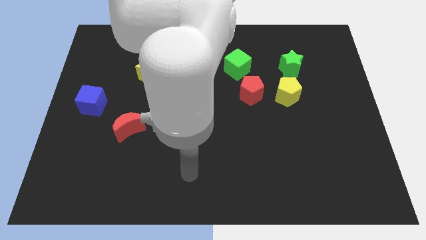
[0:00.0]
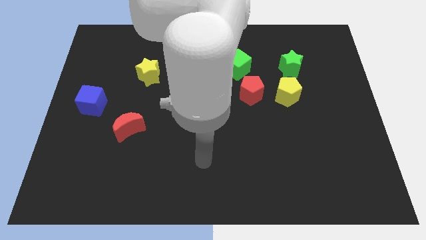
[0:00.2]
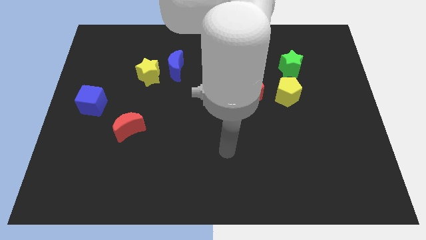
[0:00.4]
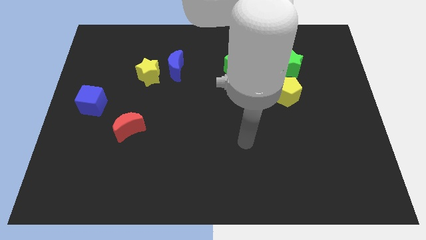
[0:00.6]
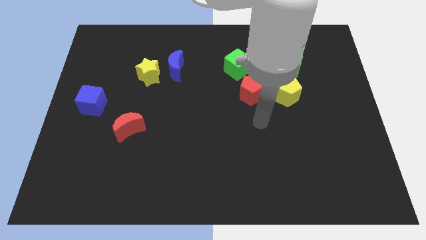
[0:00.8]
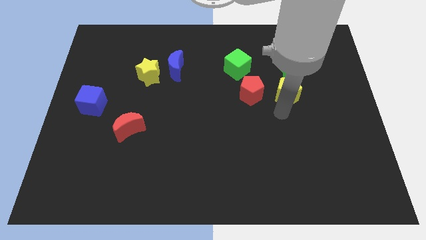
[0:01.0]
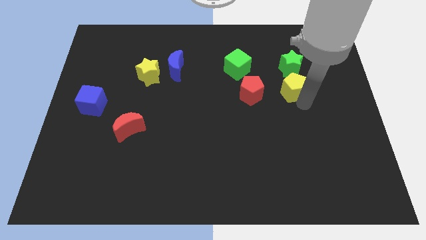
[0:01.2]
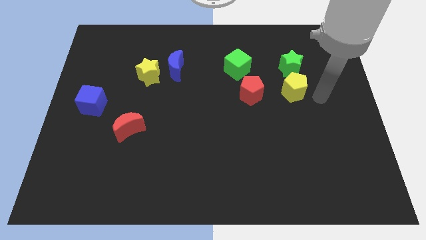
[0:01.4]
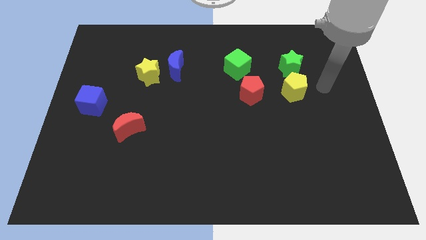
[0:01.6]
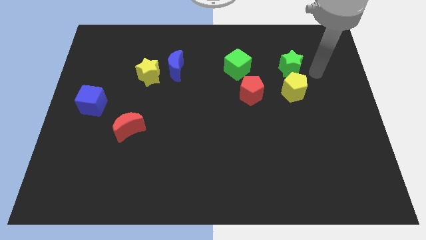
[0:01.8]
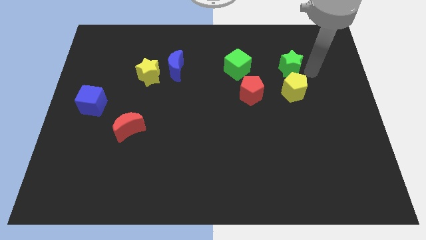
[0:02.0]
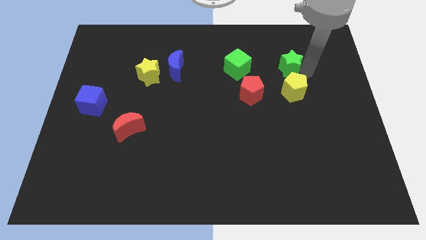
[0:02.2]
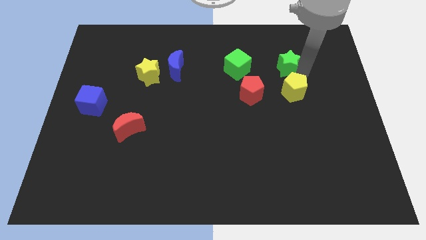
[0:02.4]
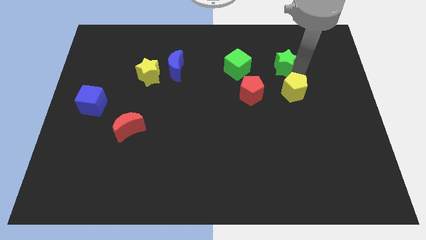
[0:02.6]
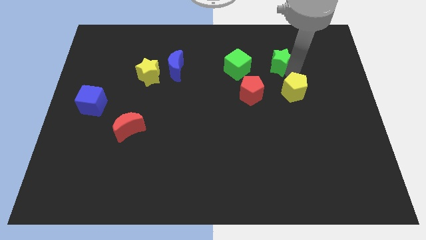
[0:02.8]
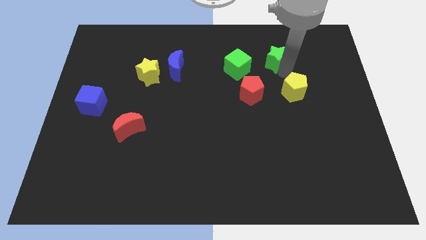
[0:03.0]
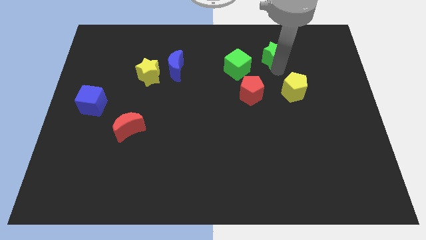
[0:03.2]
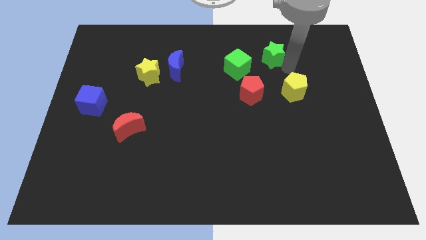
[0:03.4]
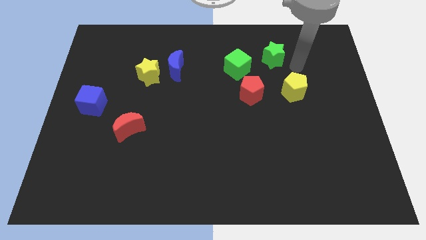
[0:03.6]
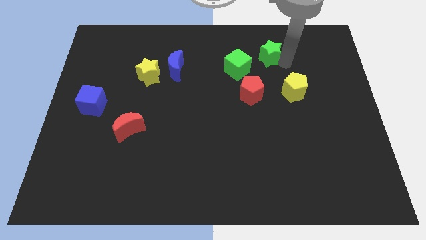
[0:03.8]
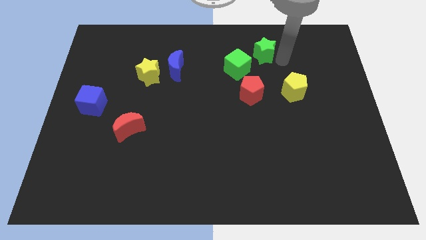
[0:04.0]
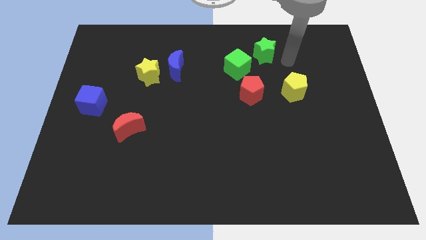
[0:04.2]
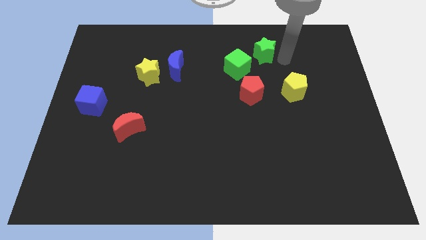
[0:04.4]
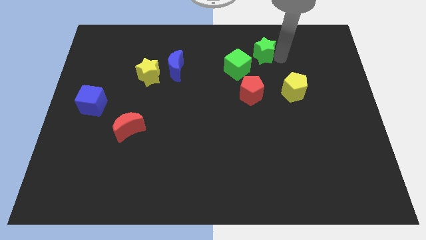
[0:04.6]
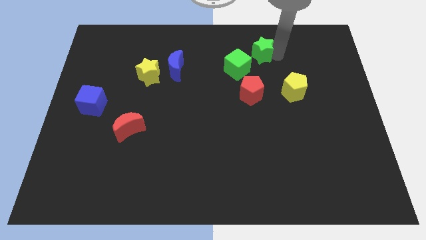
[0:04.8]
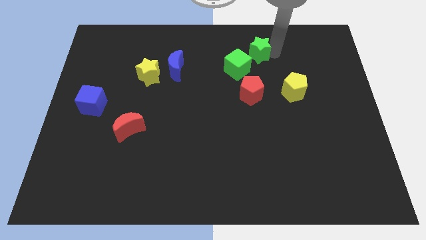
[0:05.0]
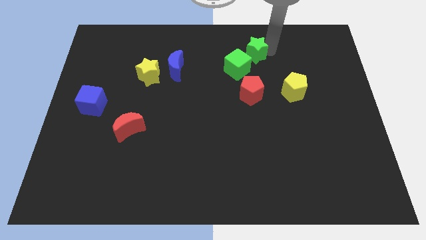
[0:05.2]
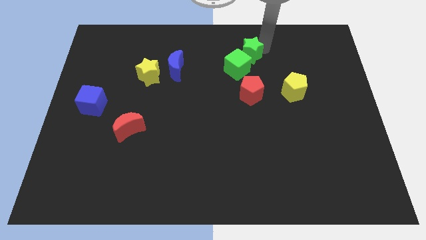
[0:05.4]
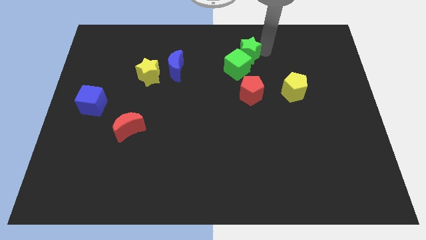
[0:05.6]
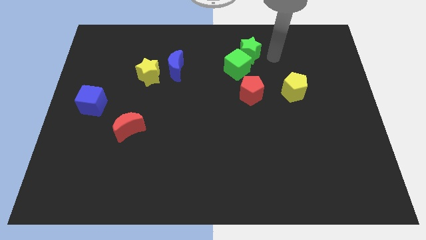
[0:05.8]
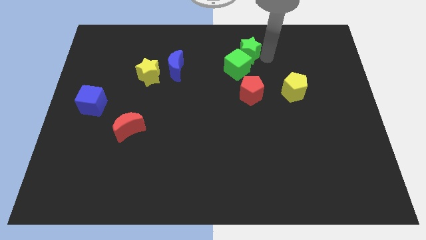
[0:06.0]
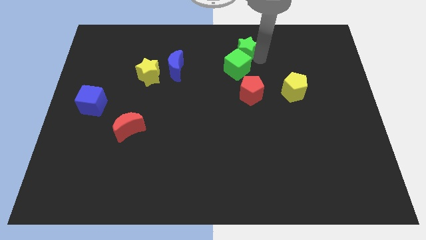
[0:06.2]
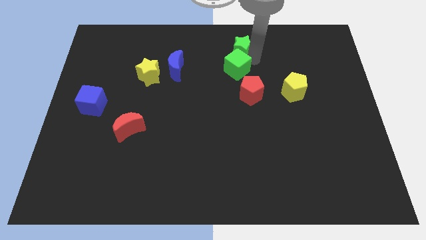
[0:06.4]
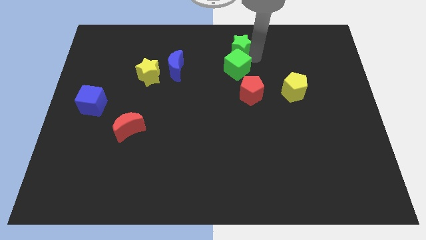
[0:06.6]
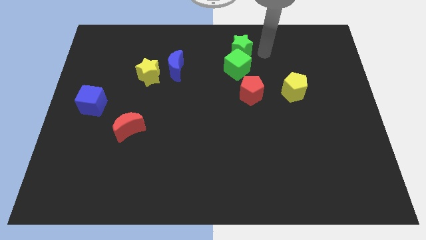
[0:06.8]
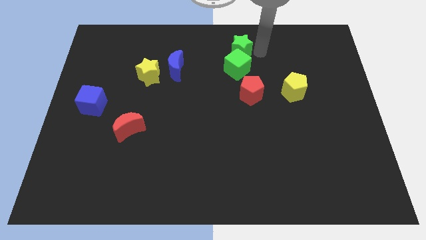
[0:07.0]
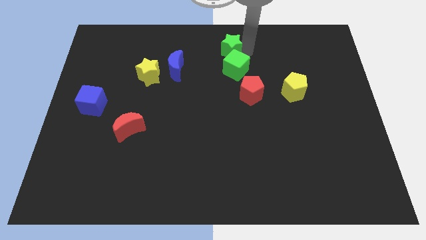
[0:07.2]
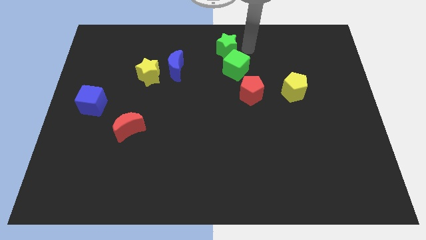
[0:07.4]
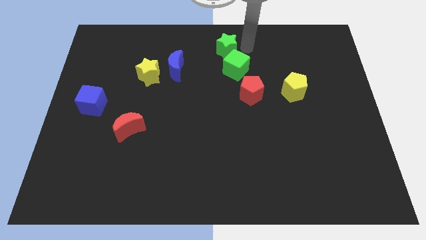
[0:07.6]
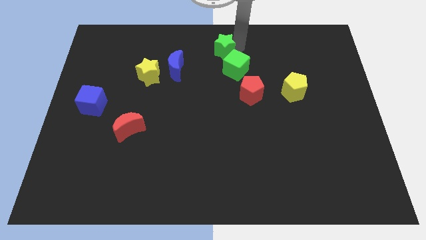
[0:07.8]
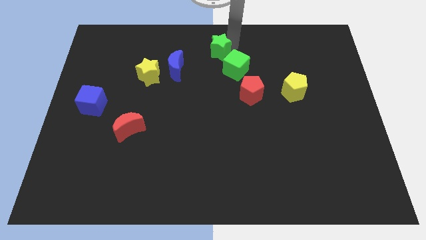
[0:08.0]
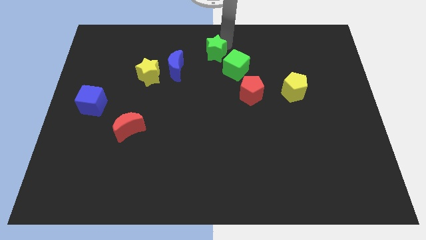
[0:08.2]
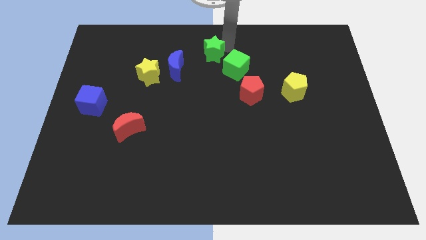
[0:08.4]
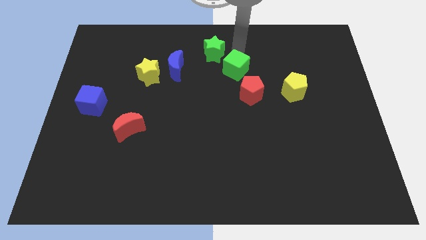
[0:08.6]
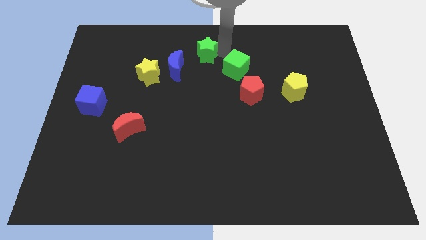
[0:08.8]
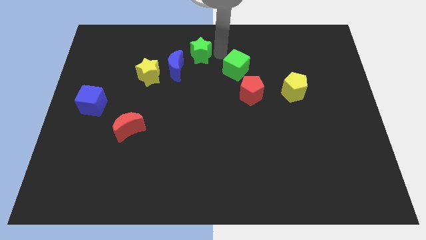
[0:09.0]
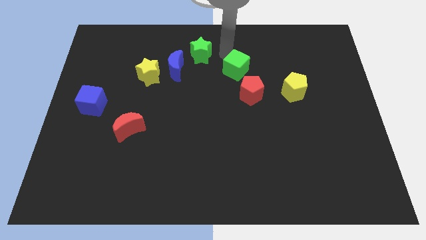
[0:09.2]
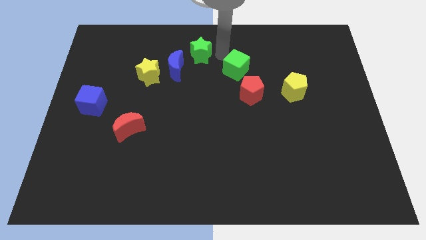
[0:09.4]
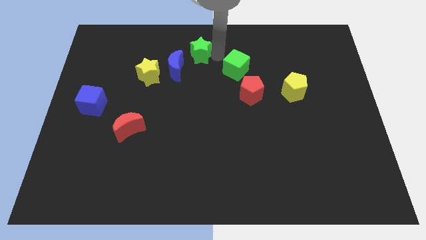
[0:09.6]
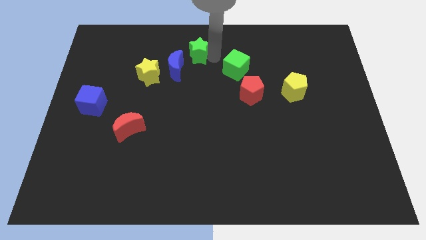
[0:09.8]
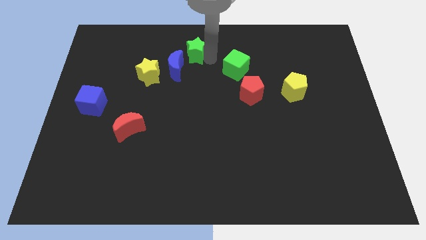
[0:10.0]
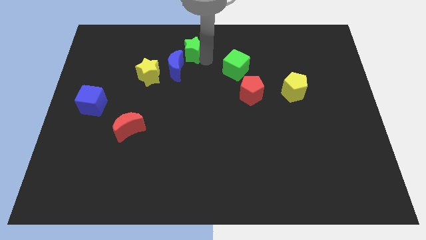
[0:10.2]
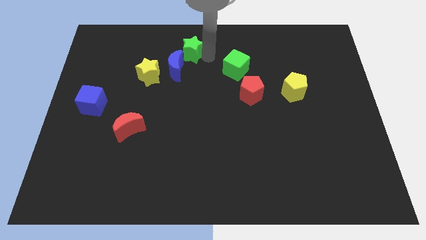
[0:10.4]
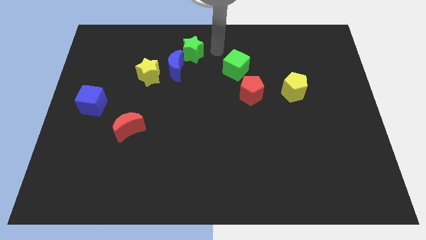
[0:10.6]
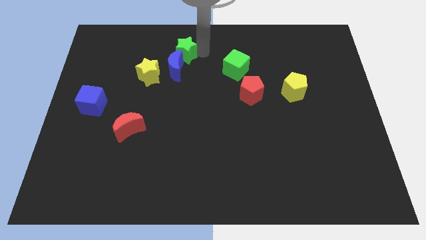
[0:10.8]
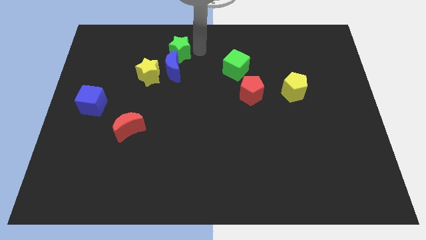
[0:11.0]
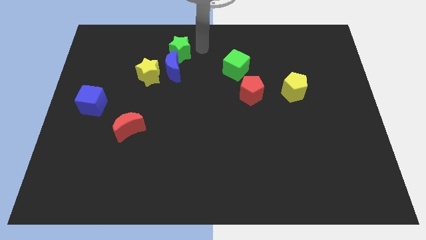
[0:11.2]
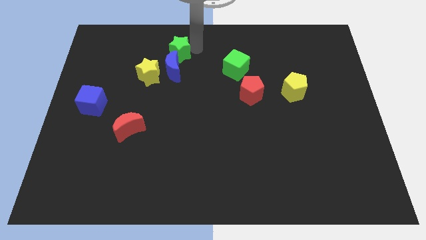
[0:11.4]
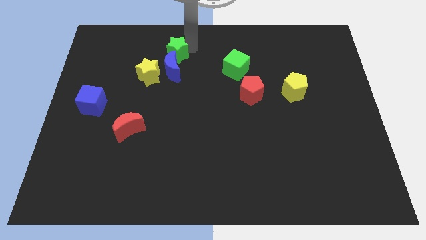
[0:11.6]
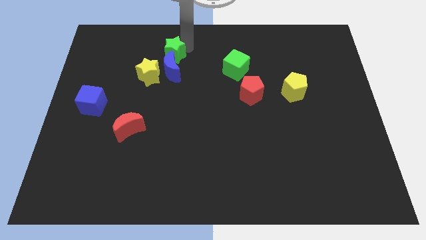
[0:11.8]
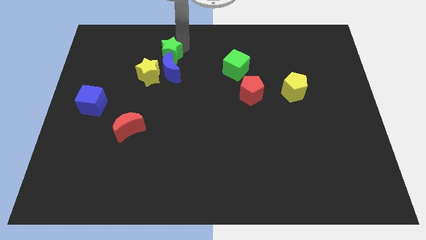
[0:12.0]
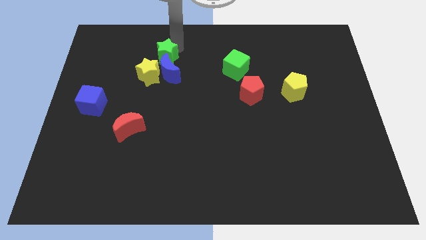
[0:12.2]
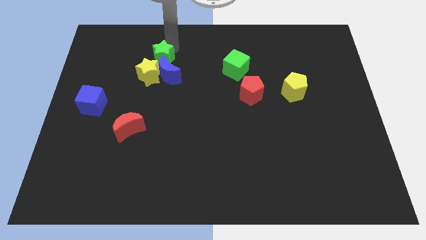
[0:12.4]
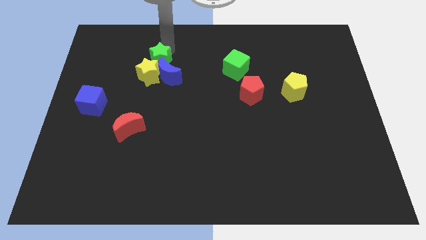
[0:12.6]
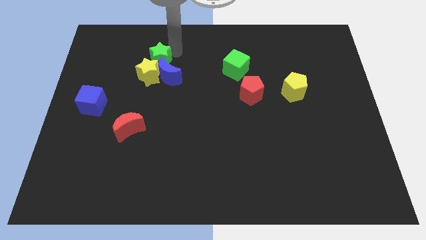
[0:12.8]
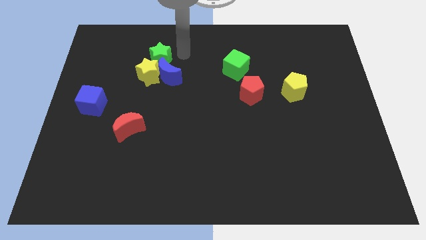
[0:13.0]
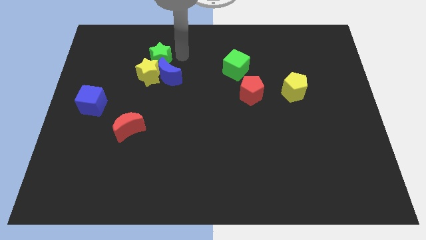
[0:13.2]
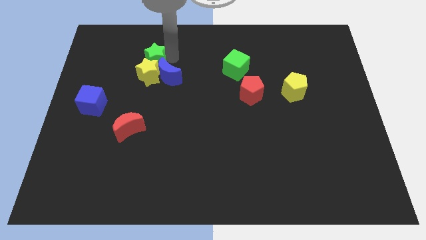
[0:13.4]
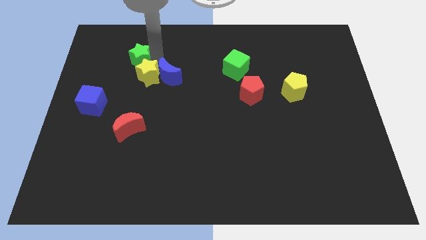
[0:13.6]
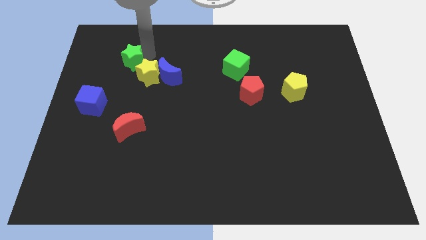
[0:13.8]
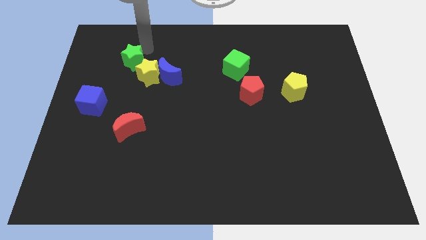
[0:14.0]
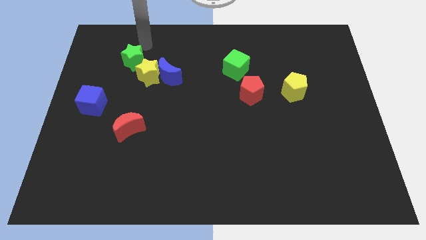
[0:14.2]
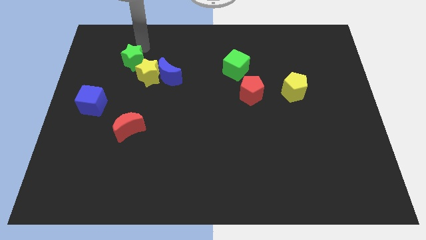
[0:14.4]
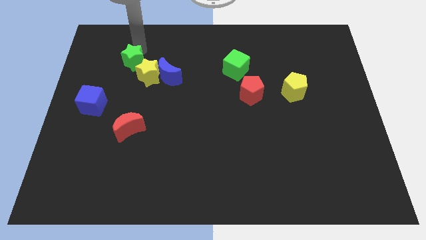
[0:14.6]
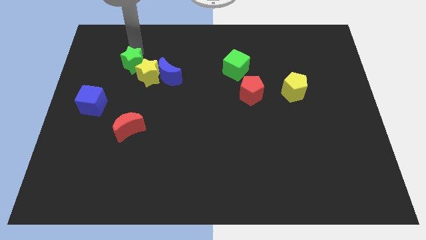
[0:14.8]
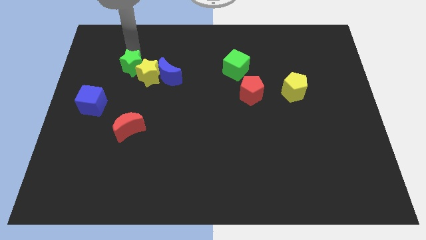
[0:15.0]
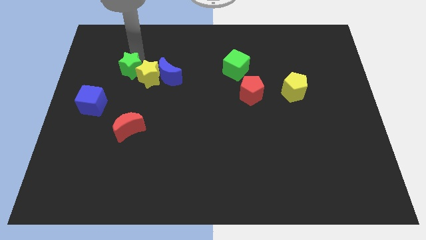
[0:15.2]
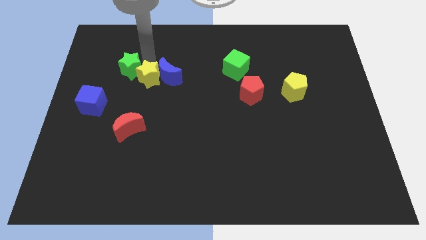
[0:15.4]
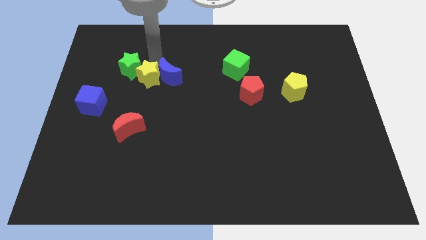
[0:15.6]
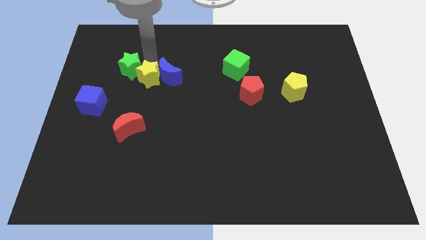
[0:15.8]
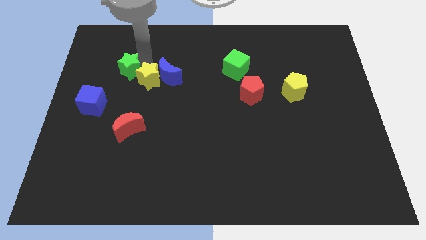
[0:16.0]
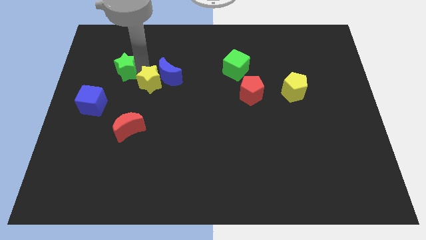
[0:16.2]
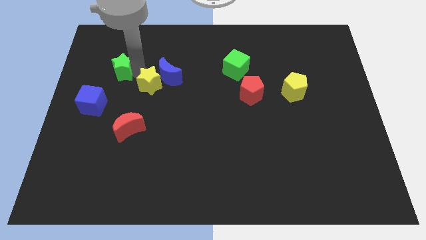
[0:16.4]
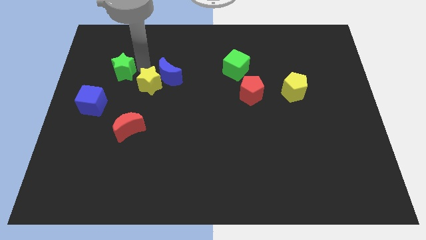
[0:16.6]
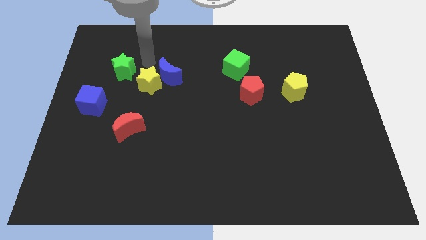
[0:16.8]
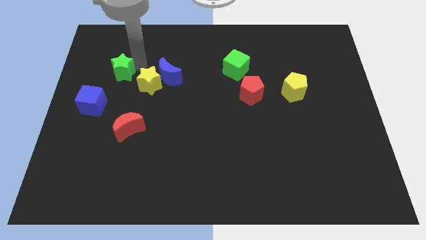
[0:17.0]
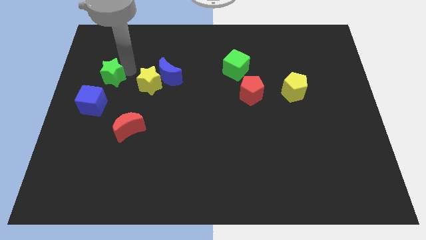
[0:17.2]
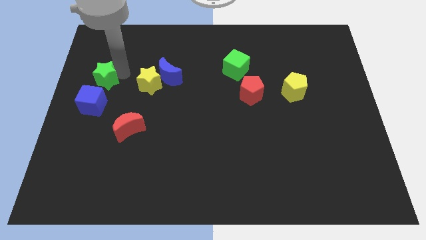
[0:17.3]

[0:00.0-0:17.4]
put the green star to the left side
